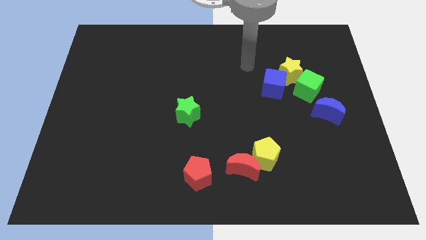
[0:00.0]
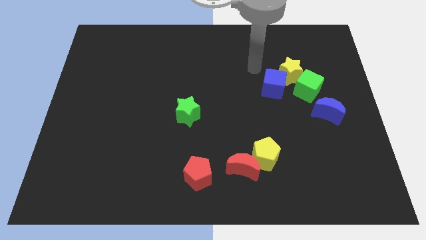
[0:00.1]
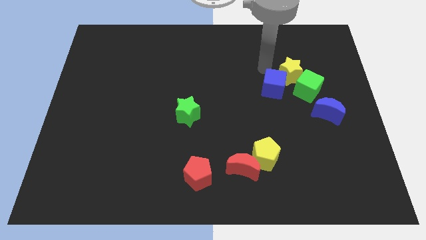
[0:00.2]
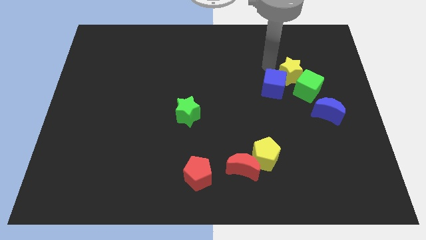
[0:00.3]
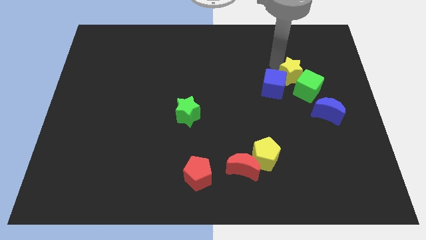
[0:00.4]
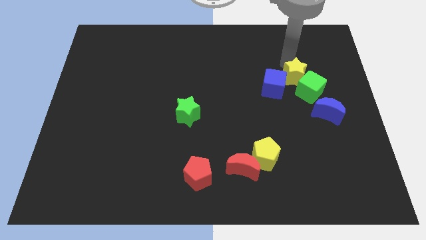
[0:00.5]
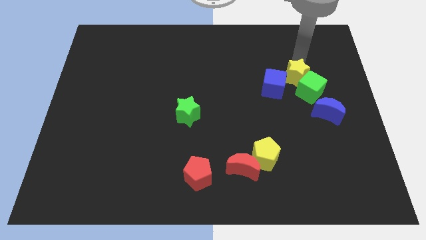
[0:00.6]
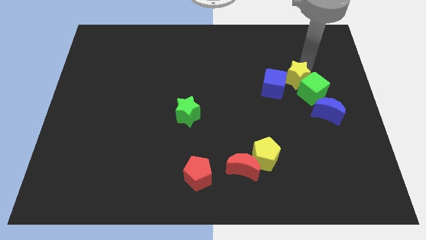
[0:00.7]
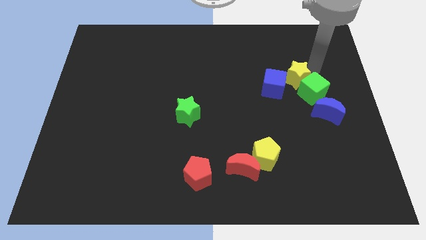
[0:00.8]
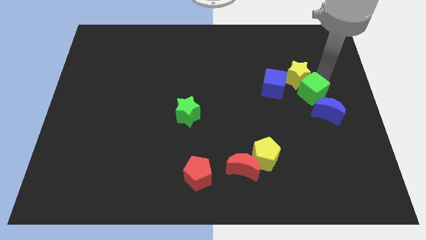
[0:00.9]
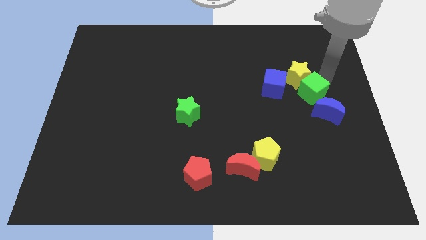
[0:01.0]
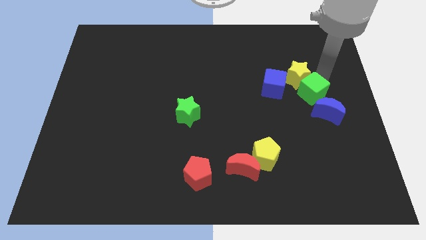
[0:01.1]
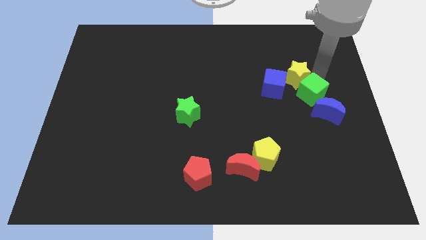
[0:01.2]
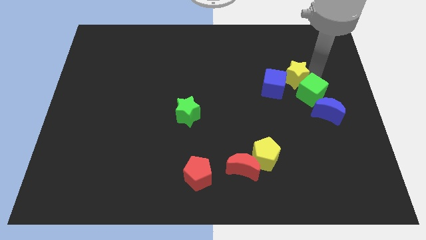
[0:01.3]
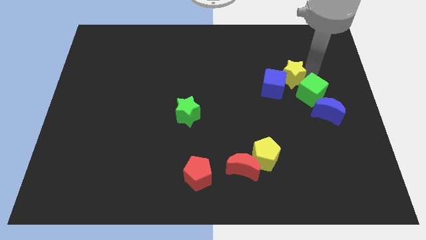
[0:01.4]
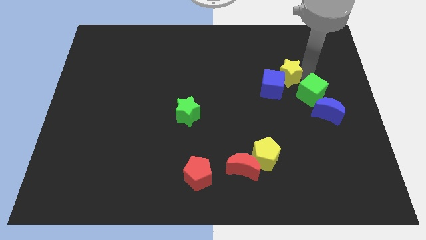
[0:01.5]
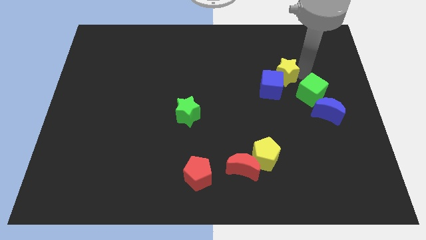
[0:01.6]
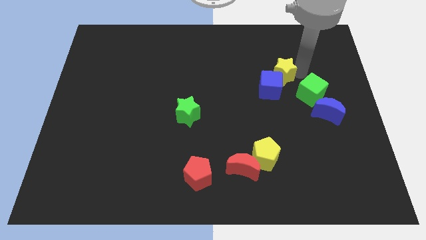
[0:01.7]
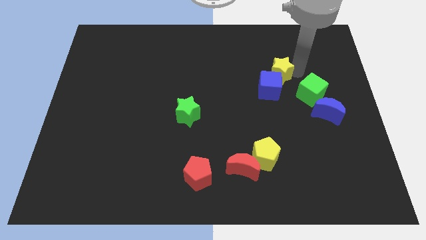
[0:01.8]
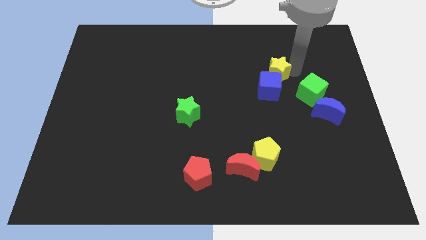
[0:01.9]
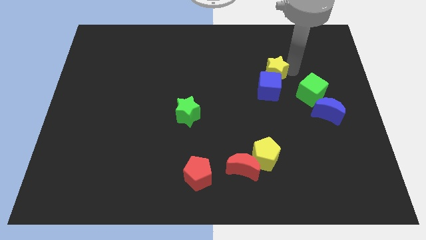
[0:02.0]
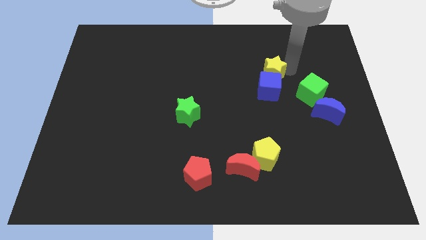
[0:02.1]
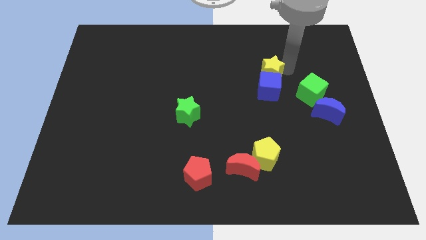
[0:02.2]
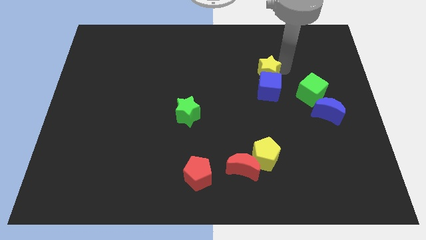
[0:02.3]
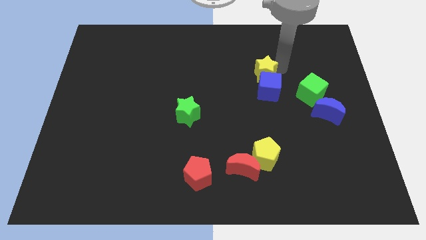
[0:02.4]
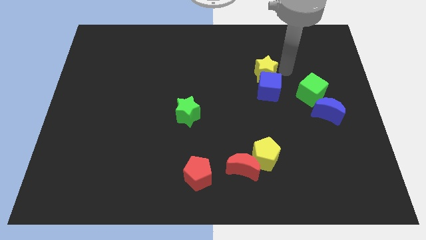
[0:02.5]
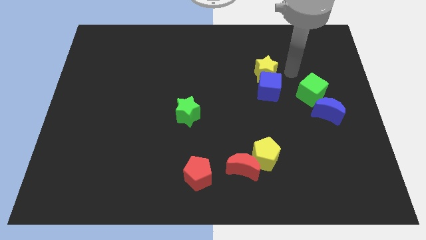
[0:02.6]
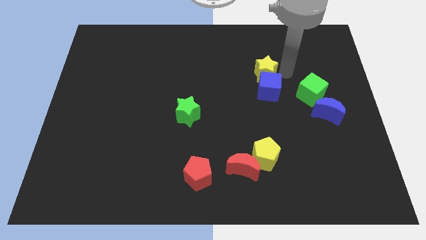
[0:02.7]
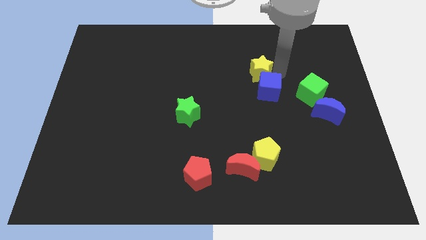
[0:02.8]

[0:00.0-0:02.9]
slightly push the yellow star to the left

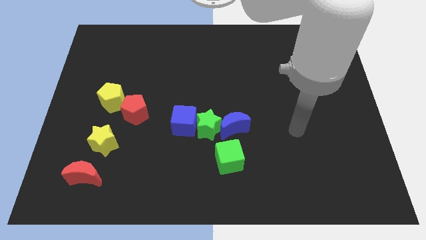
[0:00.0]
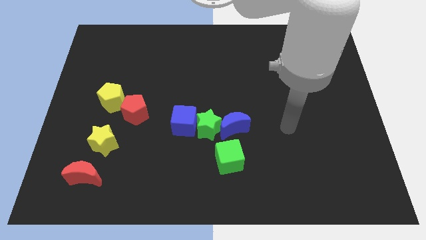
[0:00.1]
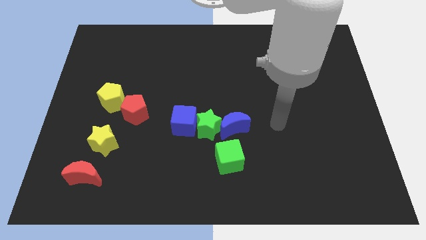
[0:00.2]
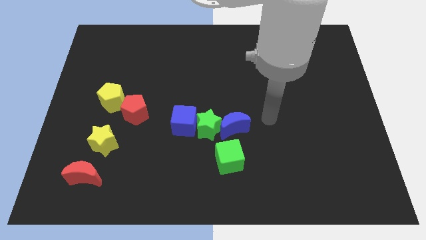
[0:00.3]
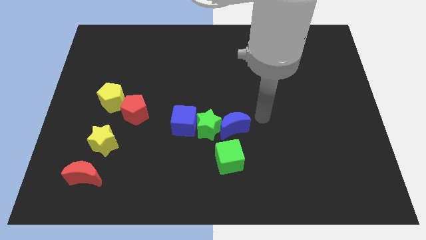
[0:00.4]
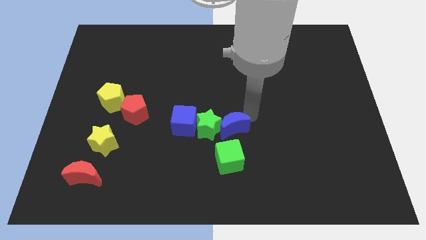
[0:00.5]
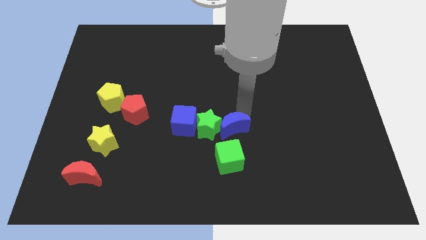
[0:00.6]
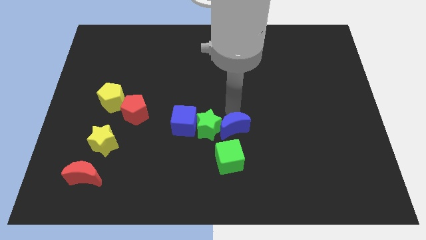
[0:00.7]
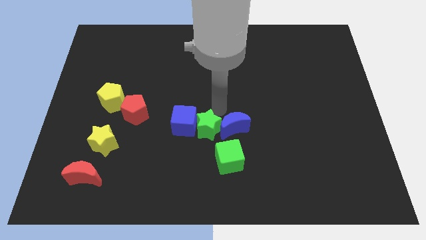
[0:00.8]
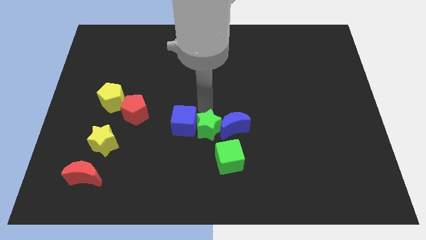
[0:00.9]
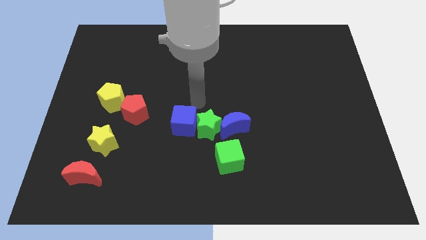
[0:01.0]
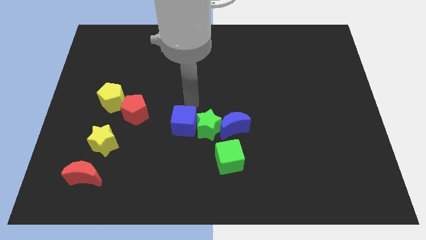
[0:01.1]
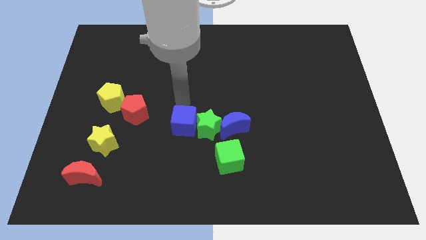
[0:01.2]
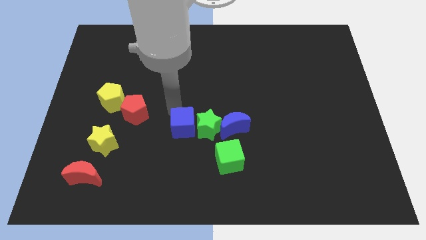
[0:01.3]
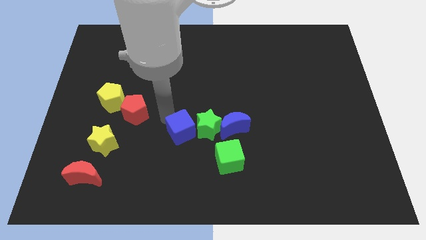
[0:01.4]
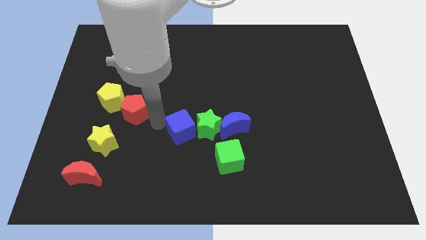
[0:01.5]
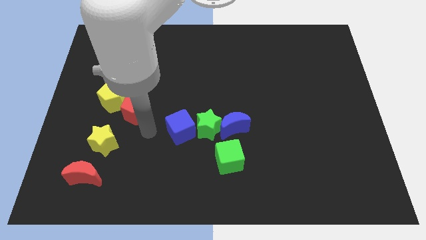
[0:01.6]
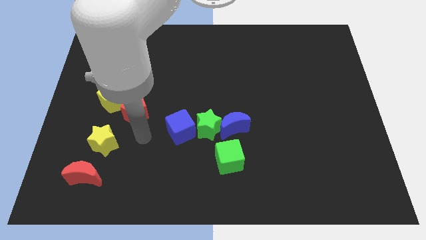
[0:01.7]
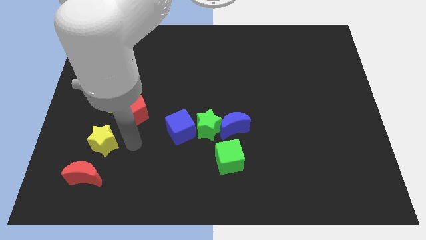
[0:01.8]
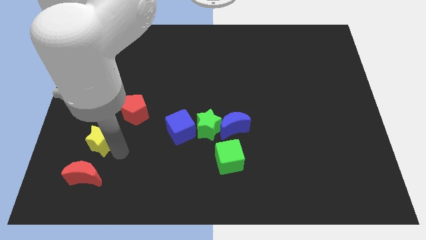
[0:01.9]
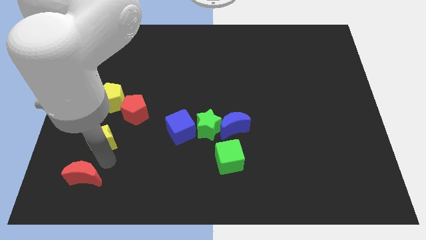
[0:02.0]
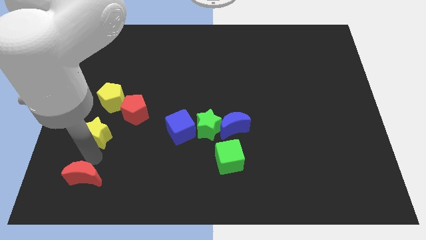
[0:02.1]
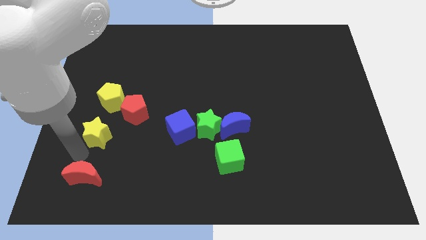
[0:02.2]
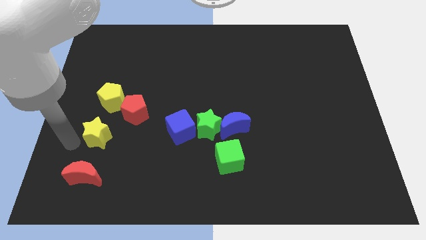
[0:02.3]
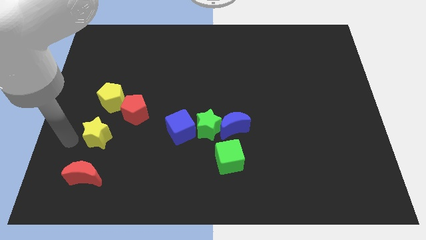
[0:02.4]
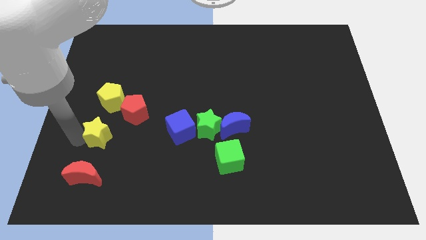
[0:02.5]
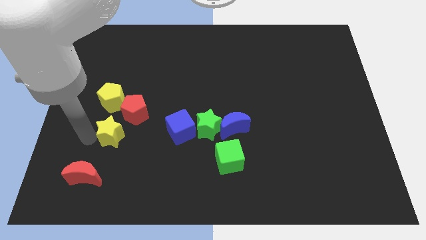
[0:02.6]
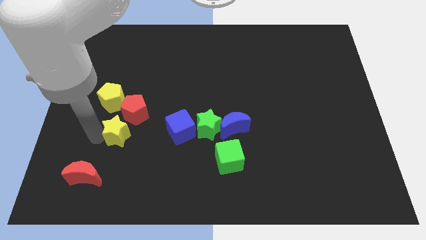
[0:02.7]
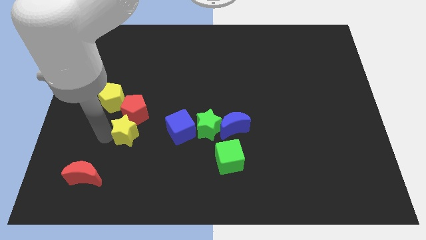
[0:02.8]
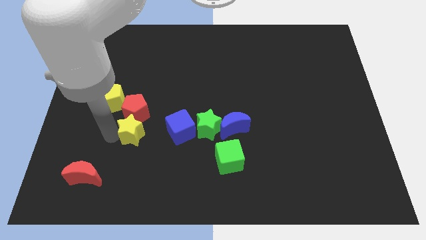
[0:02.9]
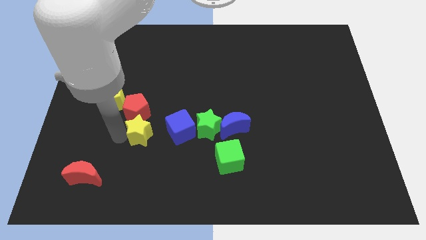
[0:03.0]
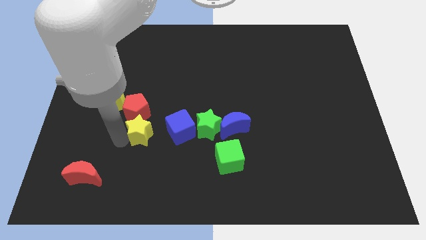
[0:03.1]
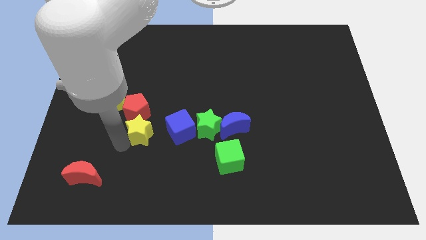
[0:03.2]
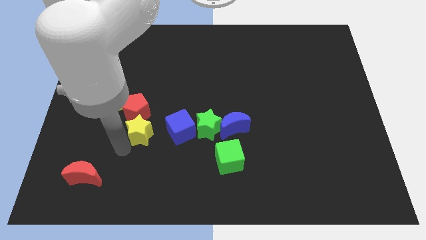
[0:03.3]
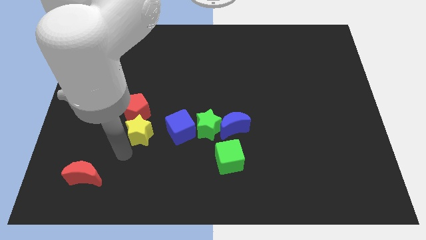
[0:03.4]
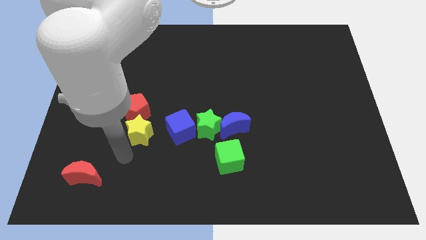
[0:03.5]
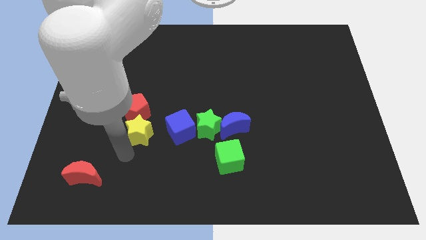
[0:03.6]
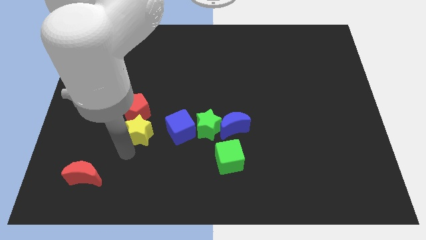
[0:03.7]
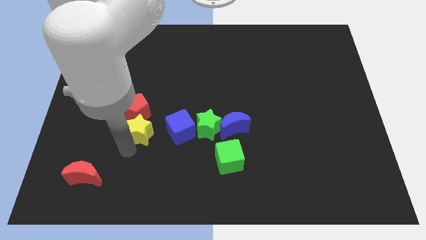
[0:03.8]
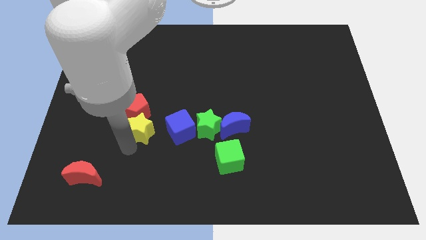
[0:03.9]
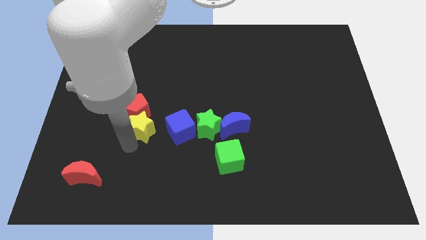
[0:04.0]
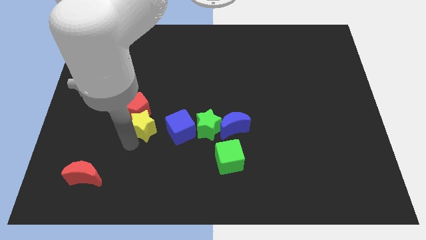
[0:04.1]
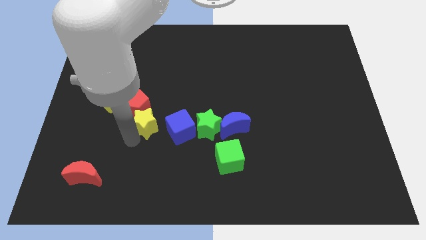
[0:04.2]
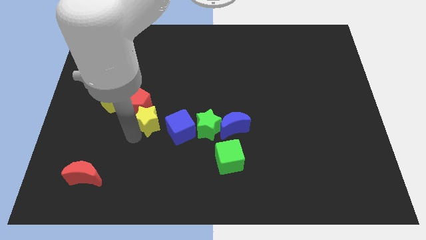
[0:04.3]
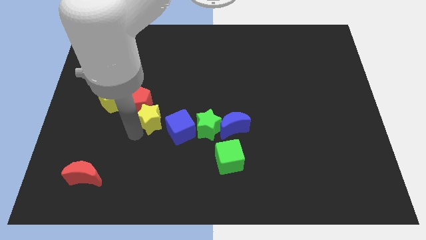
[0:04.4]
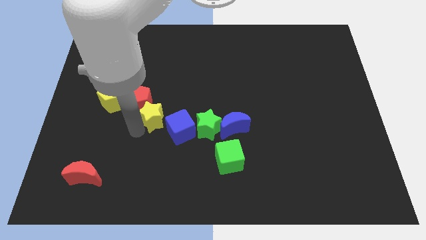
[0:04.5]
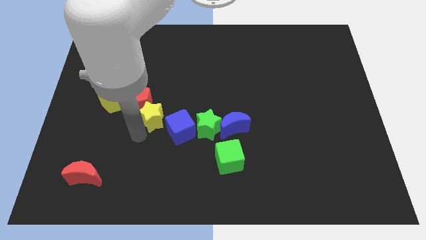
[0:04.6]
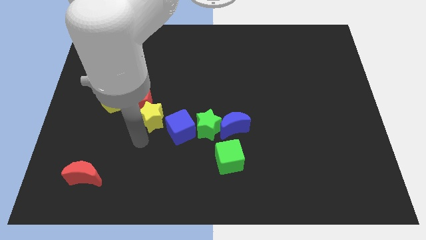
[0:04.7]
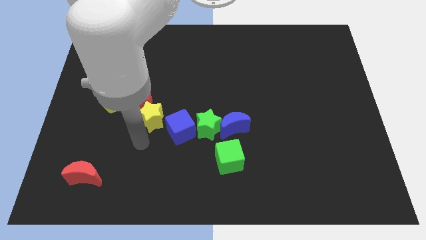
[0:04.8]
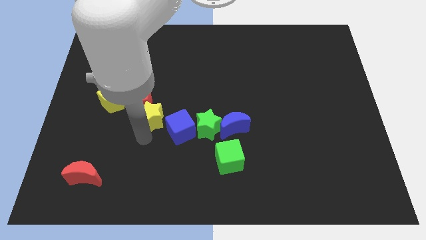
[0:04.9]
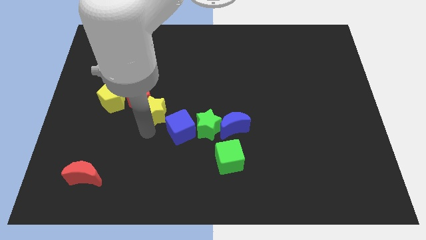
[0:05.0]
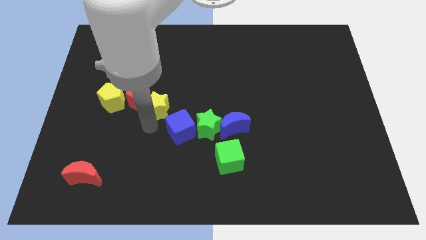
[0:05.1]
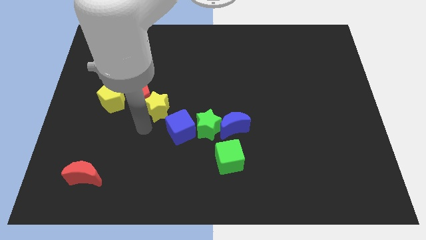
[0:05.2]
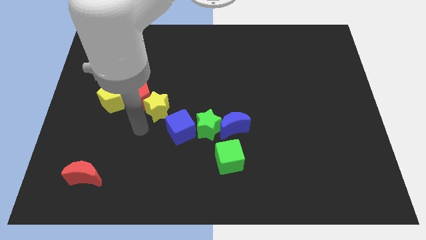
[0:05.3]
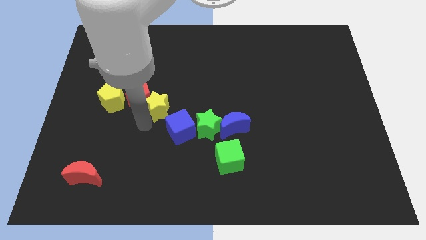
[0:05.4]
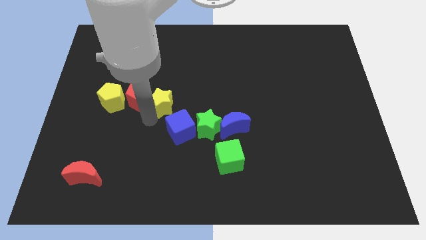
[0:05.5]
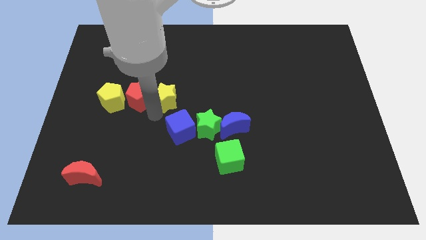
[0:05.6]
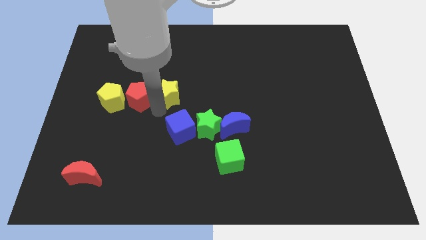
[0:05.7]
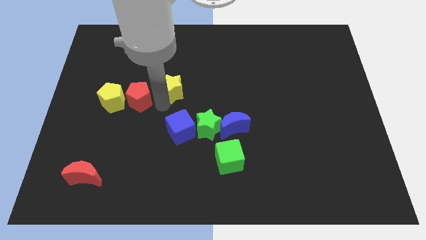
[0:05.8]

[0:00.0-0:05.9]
push the yellow star upwards and right diagonally
